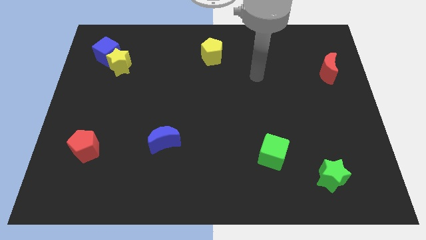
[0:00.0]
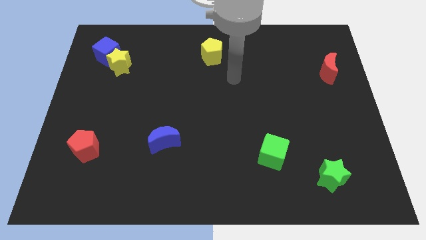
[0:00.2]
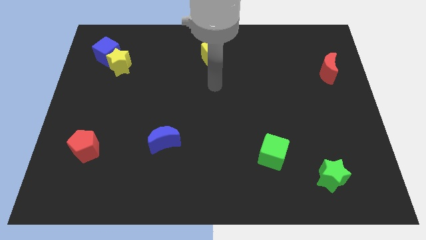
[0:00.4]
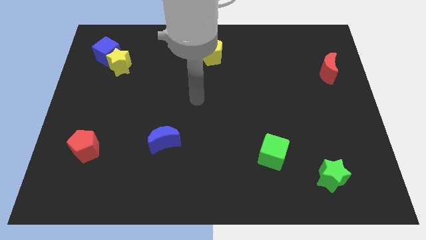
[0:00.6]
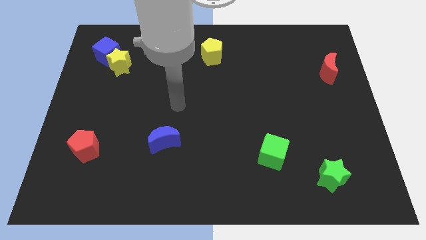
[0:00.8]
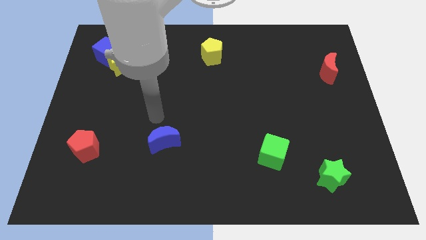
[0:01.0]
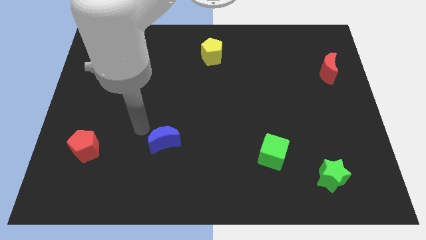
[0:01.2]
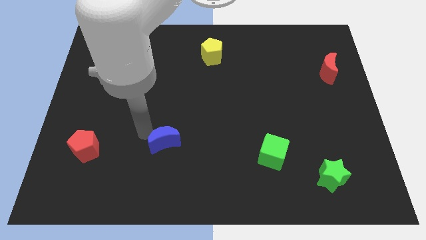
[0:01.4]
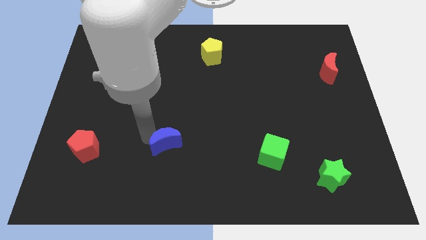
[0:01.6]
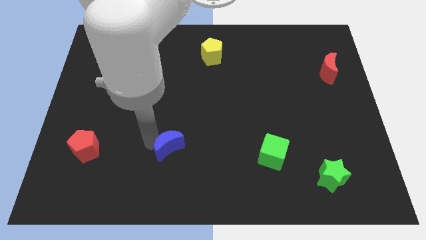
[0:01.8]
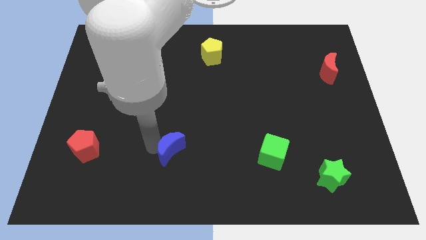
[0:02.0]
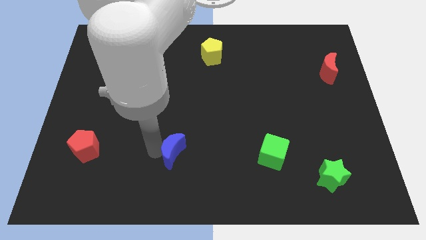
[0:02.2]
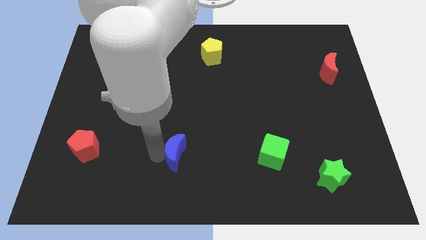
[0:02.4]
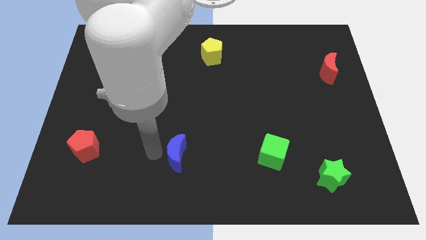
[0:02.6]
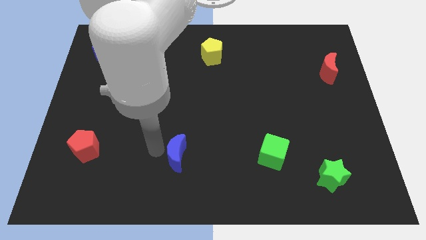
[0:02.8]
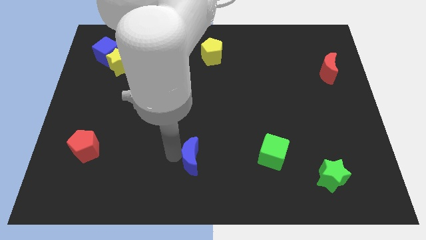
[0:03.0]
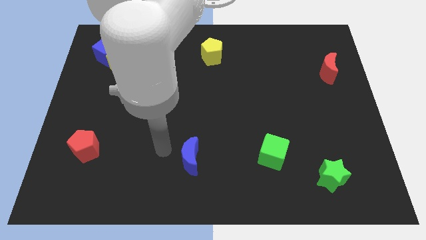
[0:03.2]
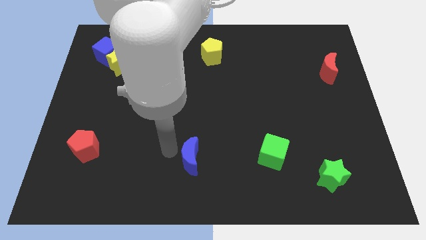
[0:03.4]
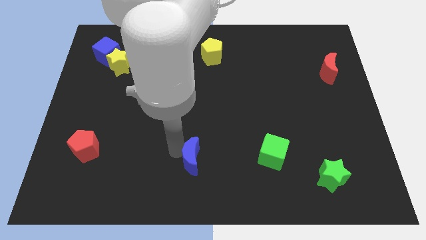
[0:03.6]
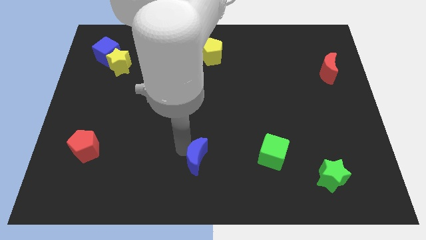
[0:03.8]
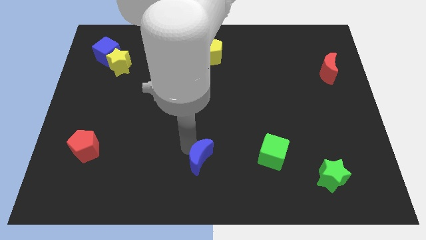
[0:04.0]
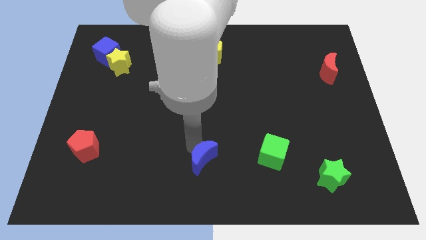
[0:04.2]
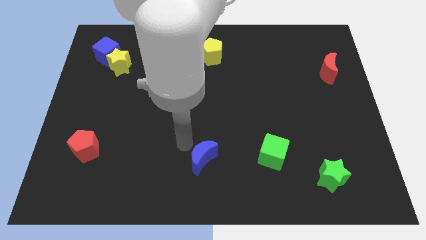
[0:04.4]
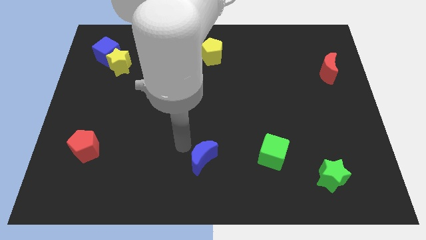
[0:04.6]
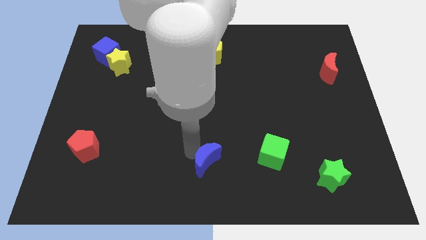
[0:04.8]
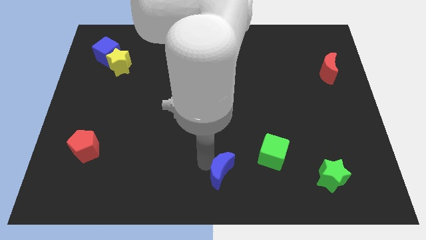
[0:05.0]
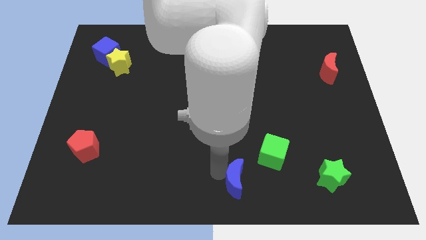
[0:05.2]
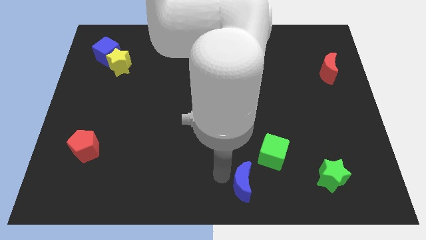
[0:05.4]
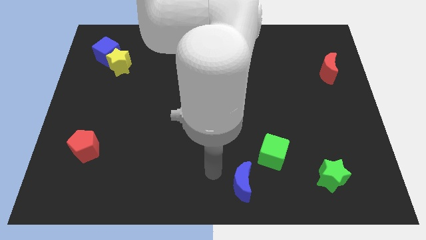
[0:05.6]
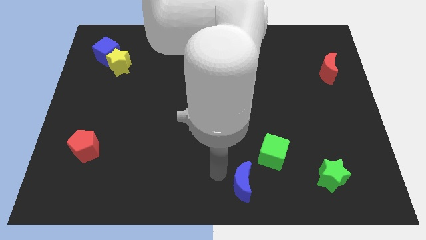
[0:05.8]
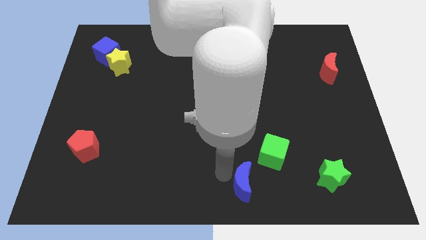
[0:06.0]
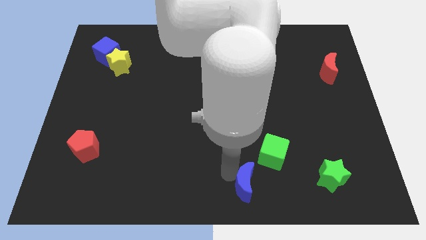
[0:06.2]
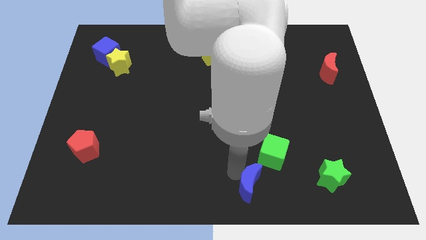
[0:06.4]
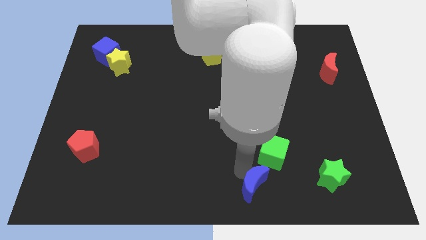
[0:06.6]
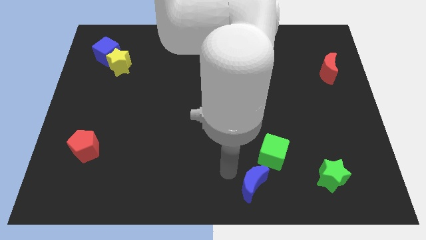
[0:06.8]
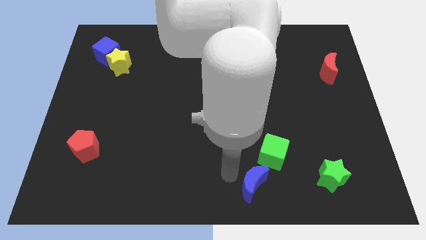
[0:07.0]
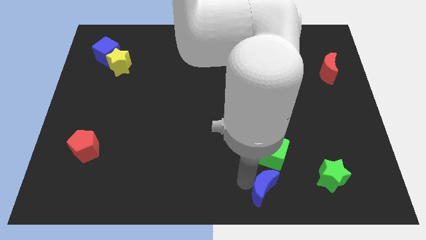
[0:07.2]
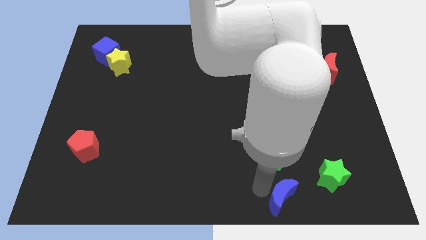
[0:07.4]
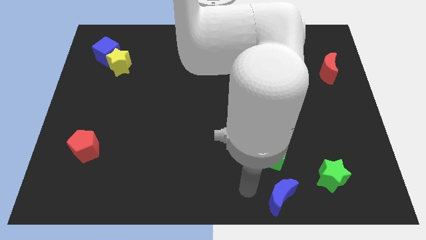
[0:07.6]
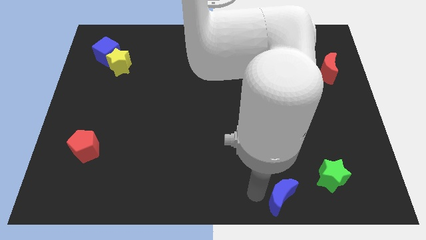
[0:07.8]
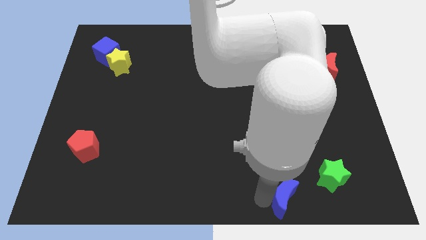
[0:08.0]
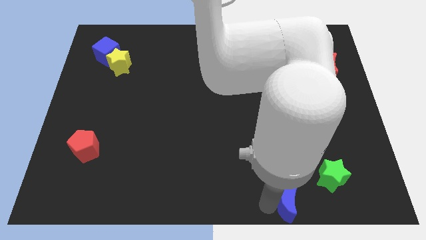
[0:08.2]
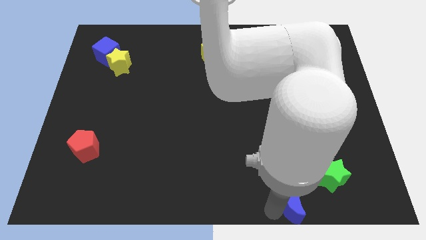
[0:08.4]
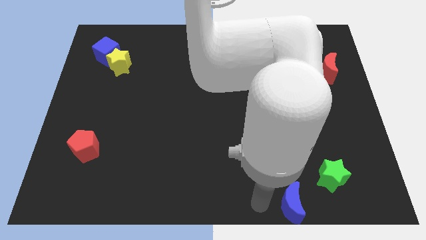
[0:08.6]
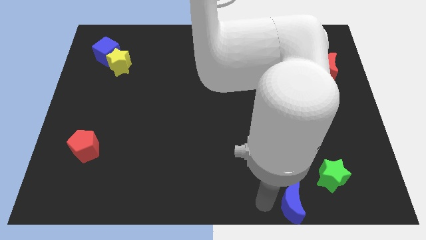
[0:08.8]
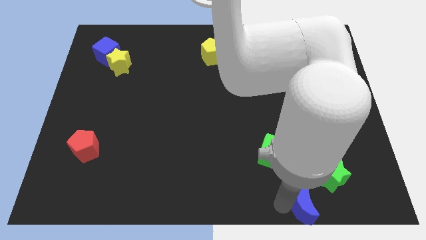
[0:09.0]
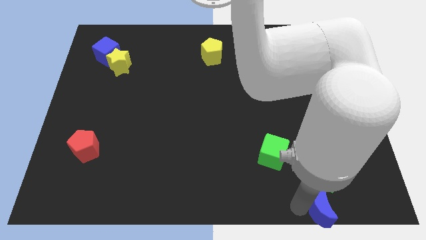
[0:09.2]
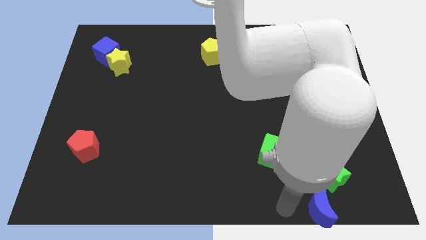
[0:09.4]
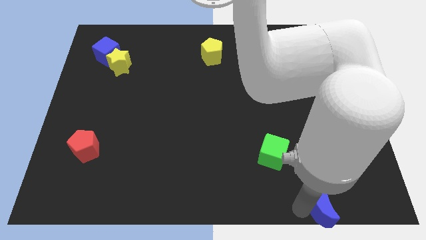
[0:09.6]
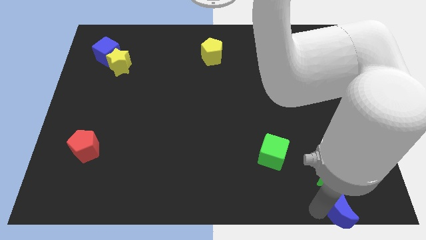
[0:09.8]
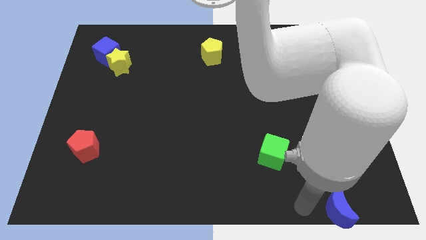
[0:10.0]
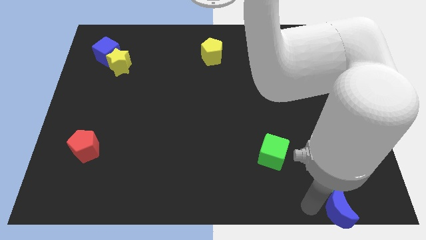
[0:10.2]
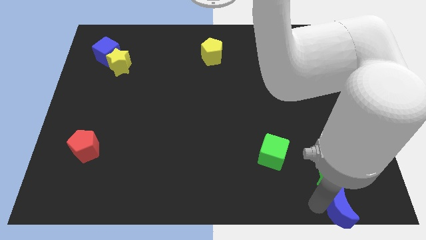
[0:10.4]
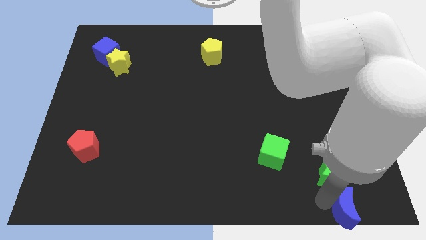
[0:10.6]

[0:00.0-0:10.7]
put the blue moon to the lower right corner
